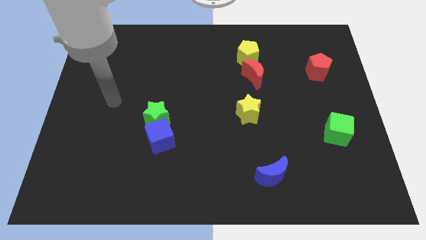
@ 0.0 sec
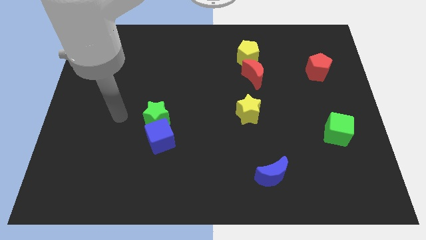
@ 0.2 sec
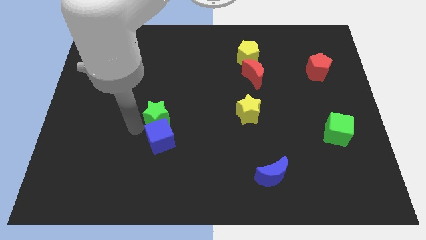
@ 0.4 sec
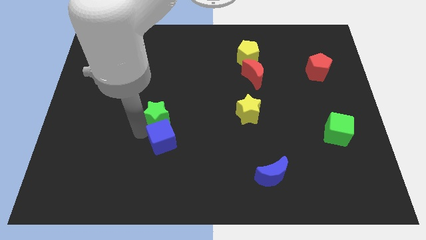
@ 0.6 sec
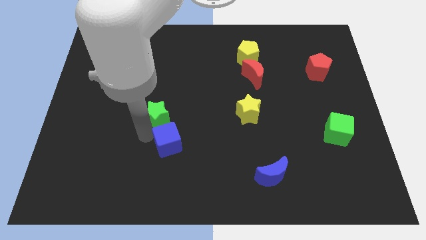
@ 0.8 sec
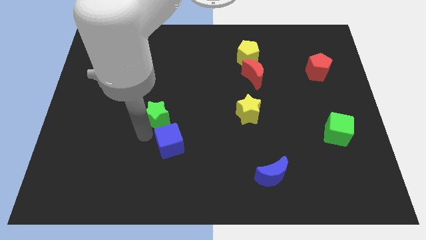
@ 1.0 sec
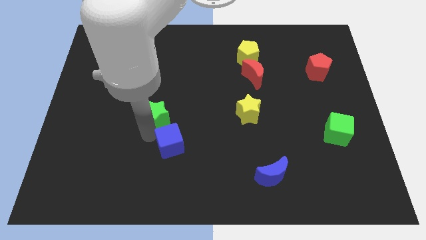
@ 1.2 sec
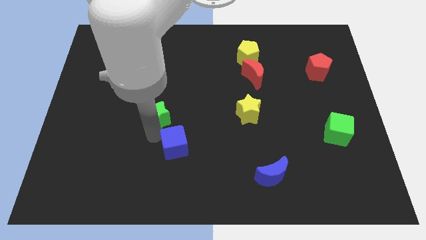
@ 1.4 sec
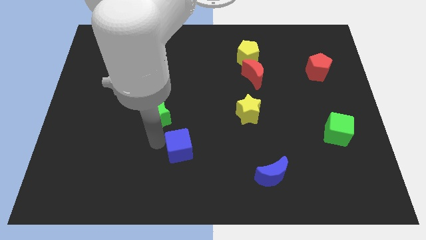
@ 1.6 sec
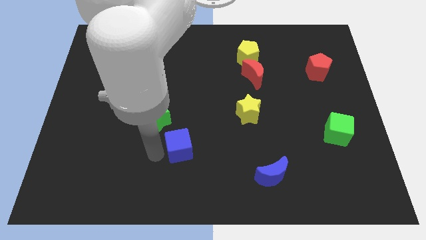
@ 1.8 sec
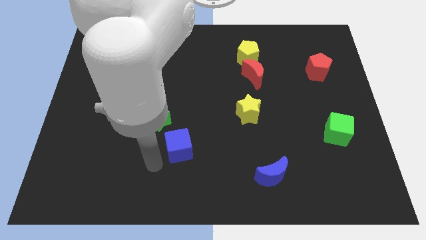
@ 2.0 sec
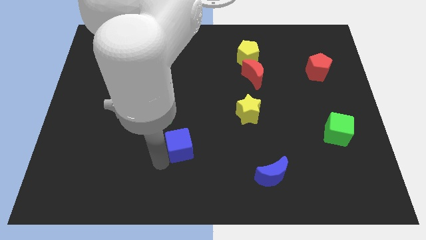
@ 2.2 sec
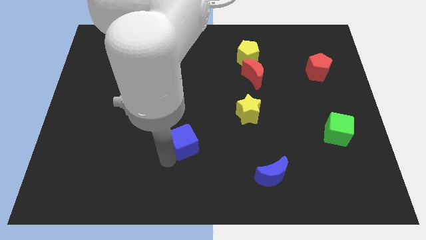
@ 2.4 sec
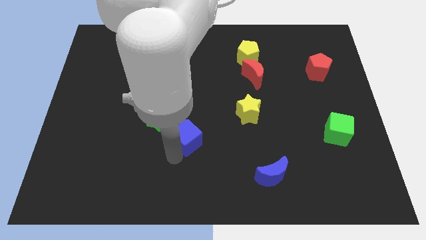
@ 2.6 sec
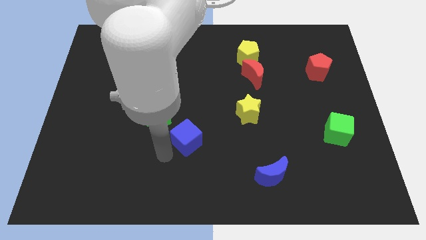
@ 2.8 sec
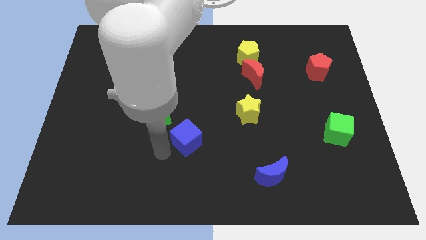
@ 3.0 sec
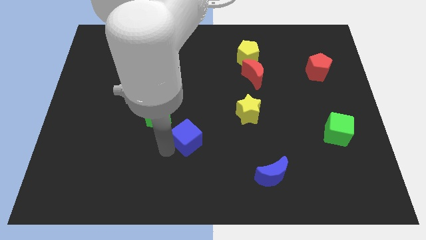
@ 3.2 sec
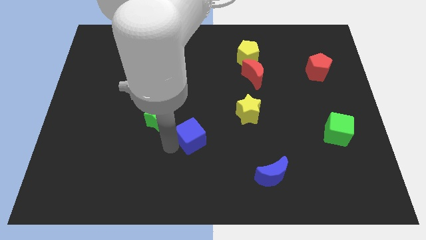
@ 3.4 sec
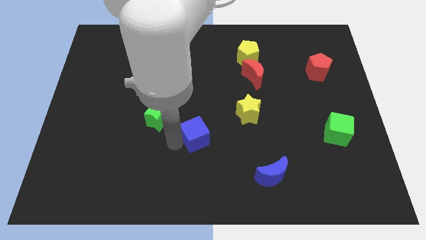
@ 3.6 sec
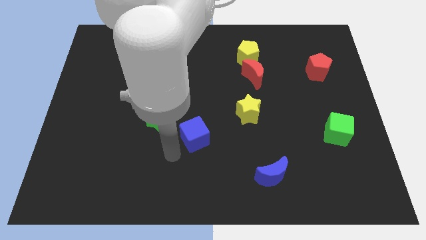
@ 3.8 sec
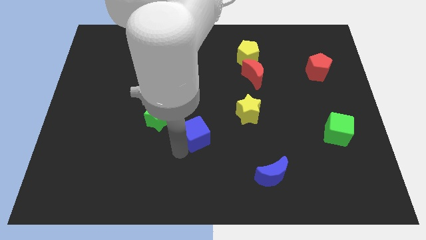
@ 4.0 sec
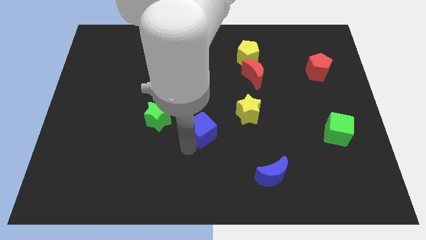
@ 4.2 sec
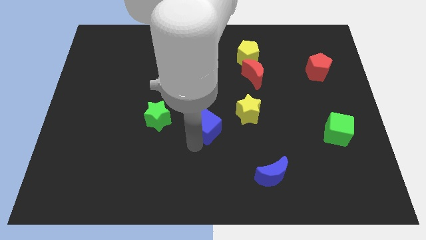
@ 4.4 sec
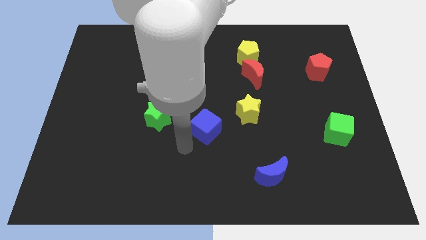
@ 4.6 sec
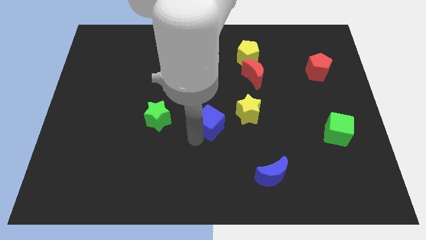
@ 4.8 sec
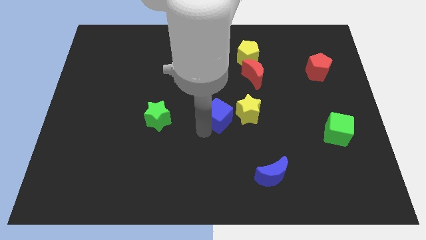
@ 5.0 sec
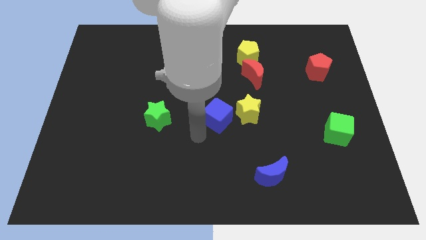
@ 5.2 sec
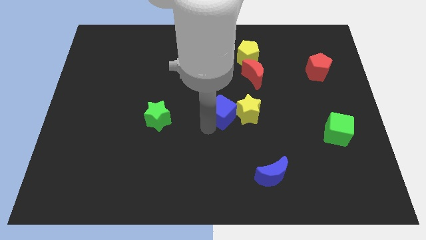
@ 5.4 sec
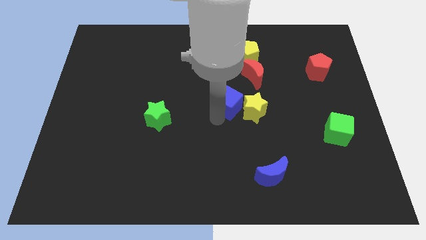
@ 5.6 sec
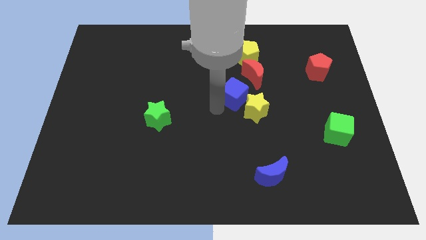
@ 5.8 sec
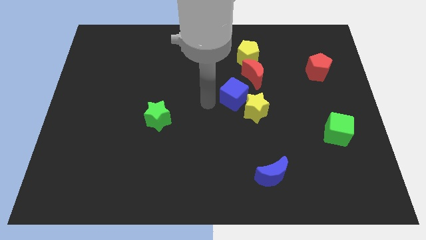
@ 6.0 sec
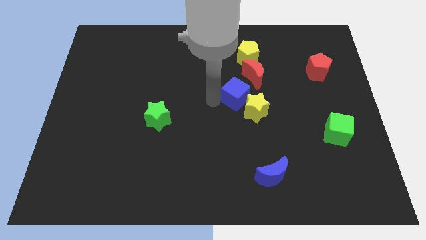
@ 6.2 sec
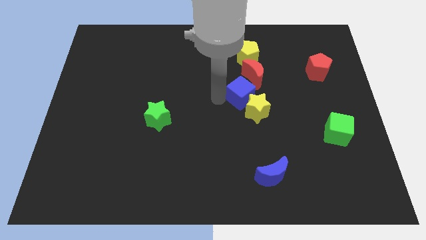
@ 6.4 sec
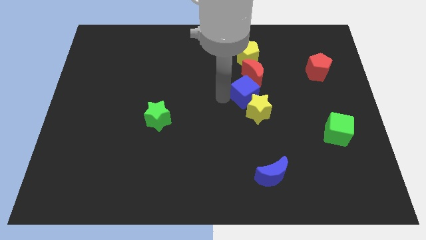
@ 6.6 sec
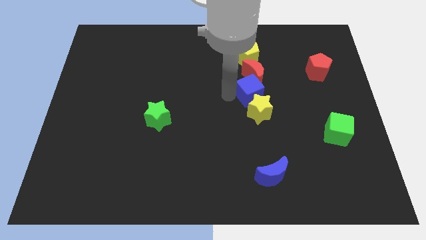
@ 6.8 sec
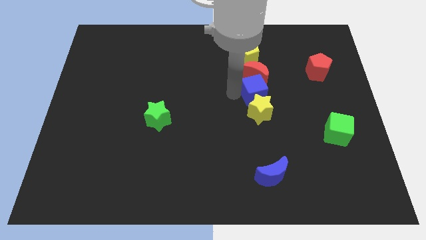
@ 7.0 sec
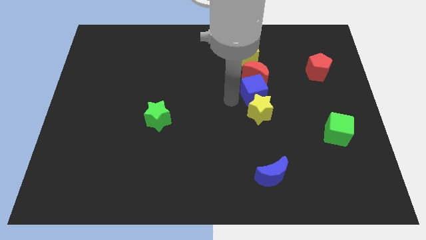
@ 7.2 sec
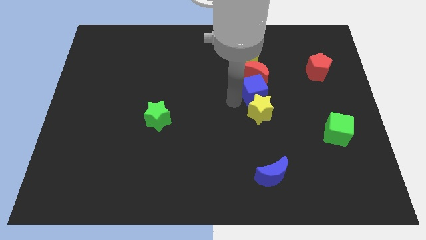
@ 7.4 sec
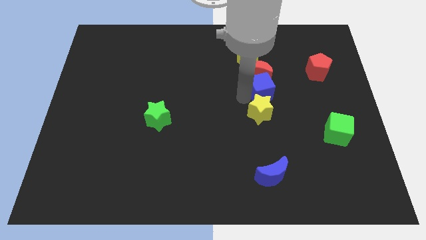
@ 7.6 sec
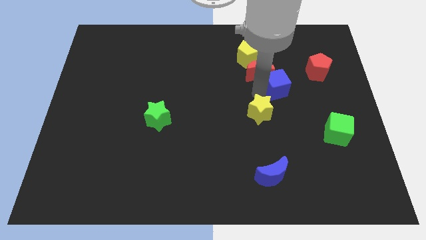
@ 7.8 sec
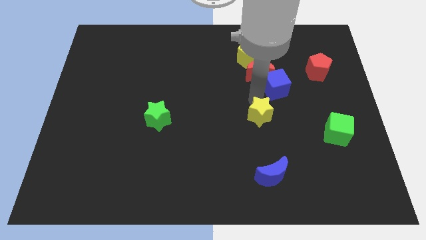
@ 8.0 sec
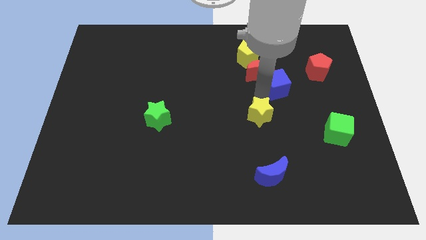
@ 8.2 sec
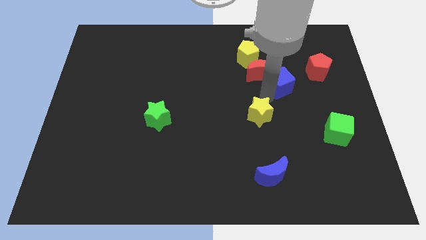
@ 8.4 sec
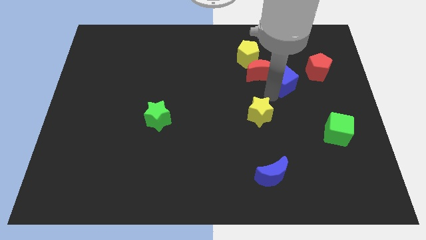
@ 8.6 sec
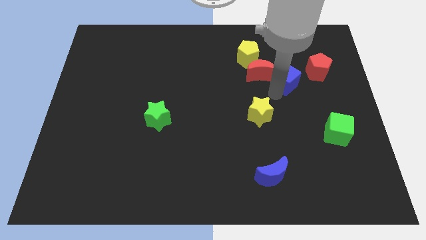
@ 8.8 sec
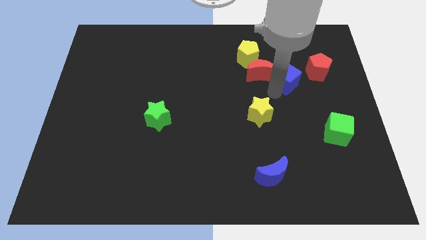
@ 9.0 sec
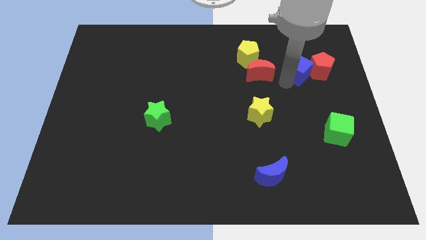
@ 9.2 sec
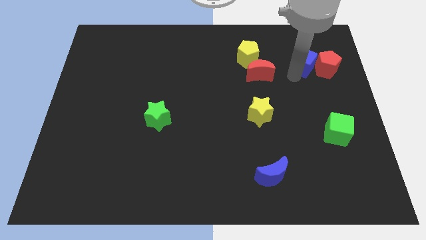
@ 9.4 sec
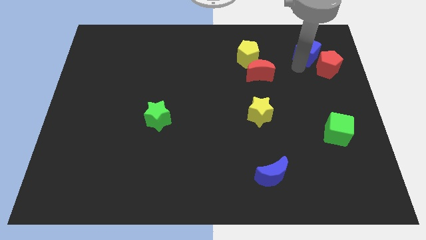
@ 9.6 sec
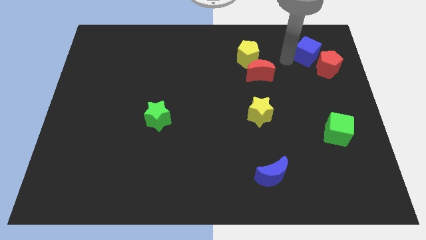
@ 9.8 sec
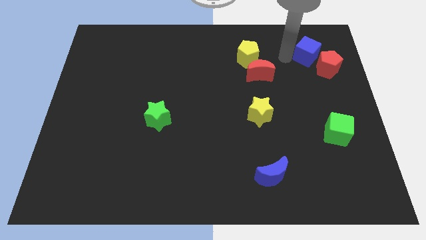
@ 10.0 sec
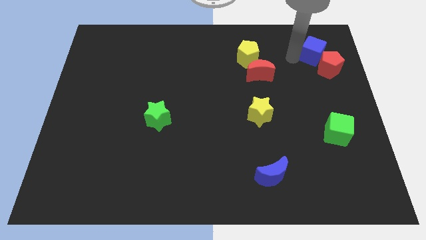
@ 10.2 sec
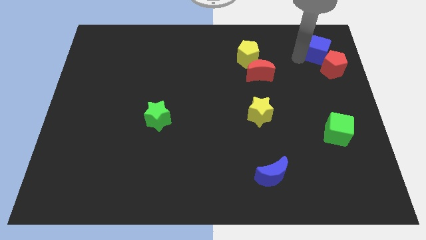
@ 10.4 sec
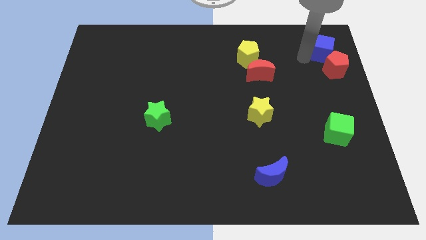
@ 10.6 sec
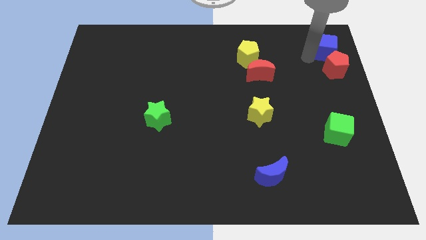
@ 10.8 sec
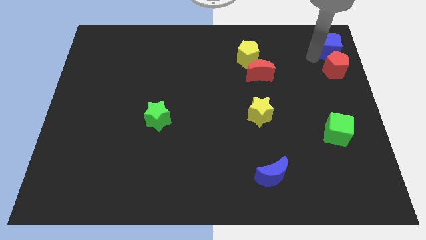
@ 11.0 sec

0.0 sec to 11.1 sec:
slide the blue cube to the top right corner
